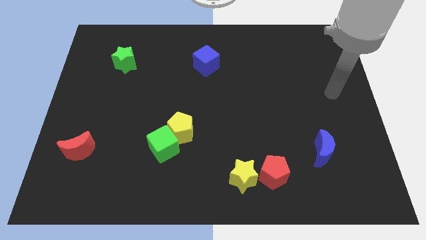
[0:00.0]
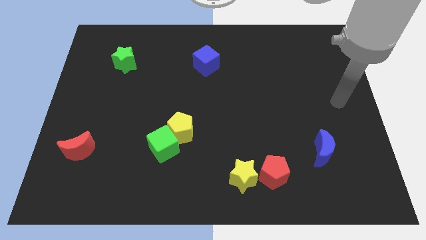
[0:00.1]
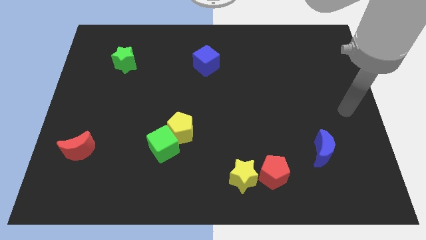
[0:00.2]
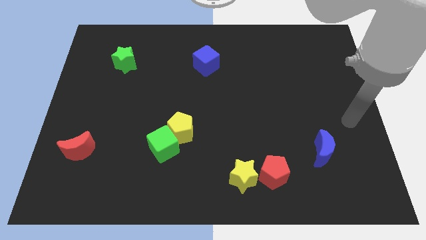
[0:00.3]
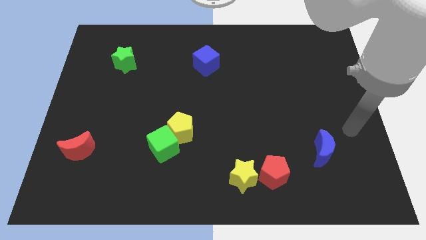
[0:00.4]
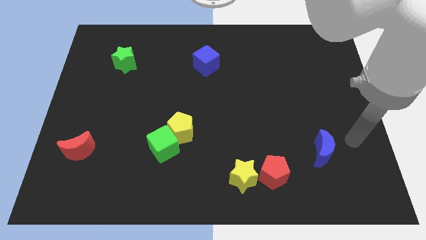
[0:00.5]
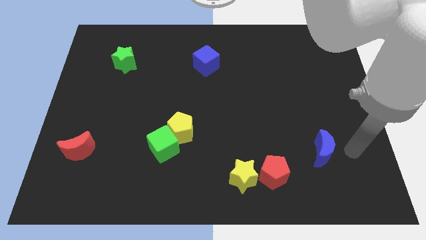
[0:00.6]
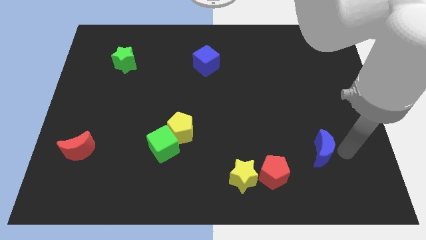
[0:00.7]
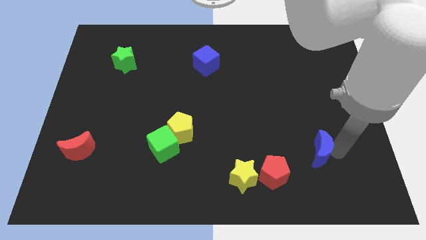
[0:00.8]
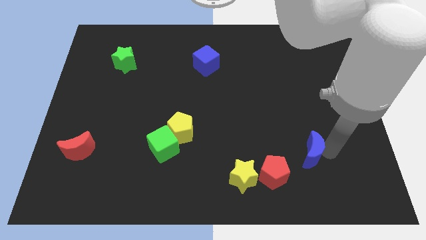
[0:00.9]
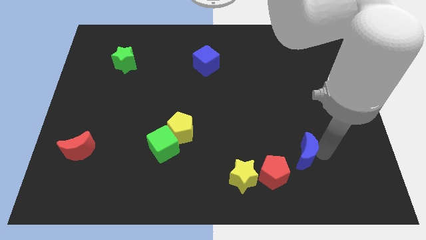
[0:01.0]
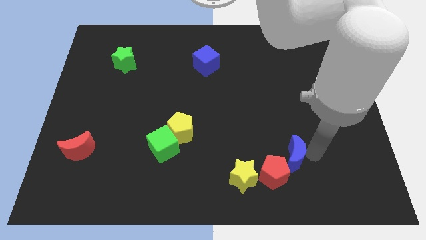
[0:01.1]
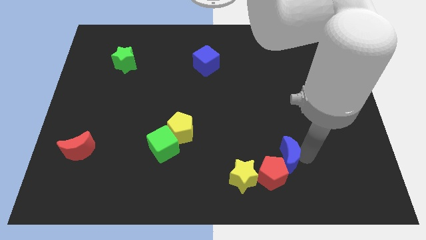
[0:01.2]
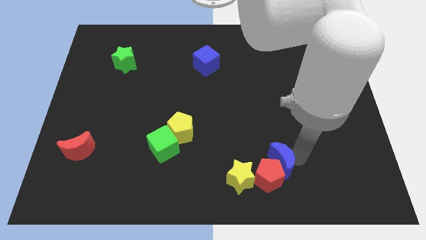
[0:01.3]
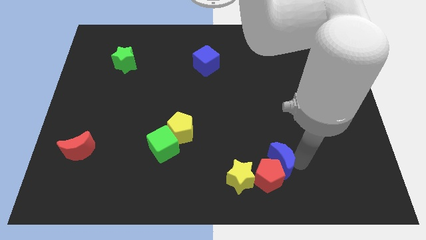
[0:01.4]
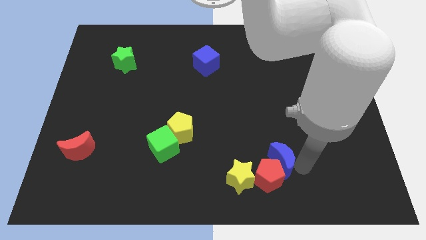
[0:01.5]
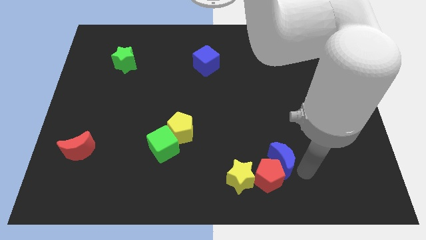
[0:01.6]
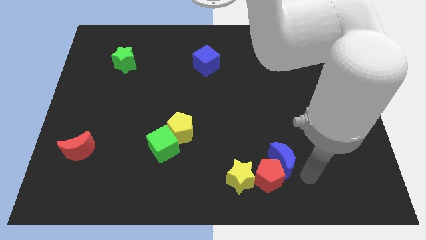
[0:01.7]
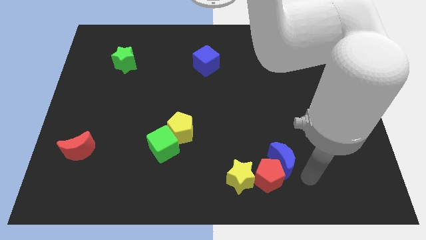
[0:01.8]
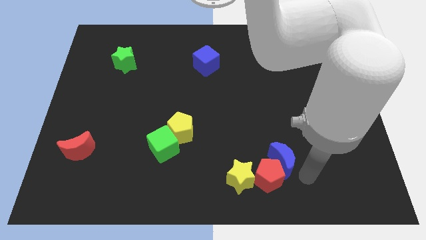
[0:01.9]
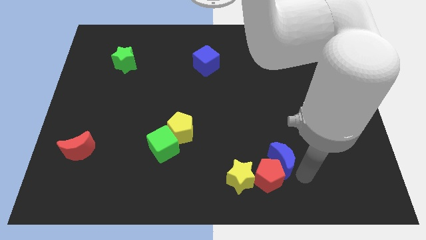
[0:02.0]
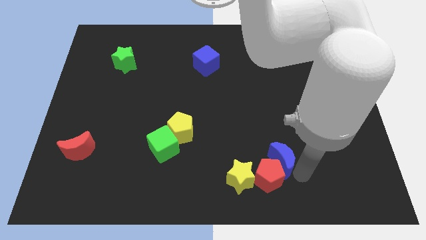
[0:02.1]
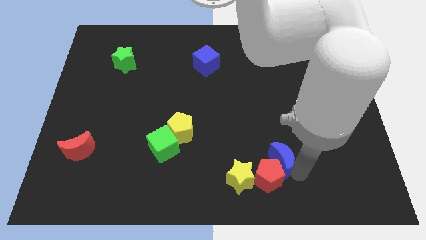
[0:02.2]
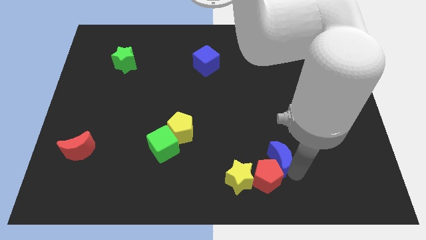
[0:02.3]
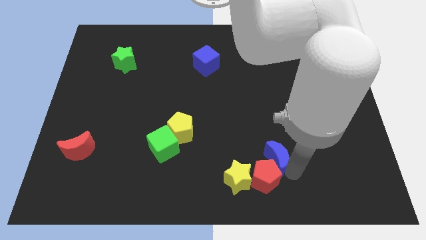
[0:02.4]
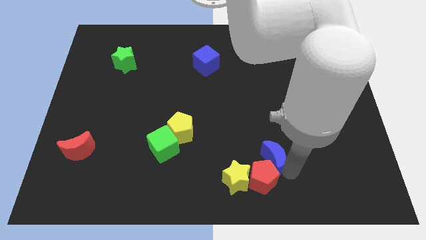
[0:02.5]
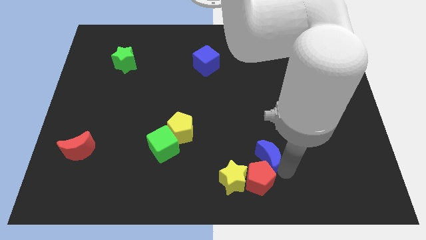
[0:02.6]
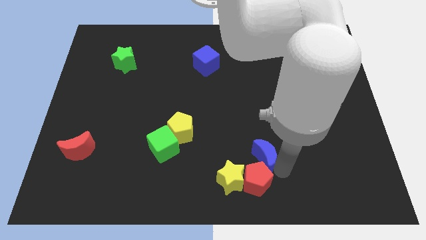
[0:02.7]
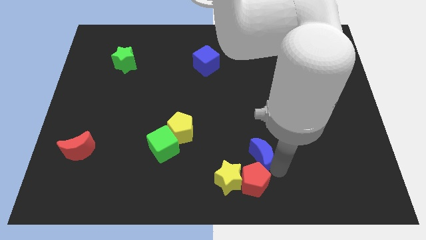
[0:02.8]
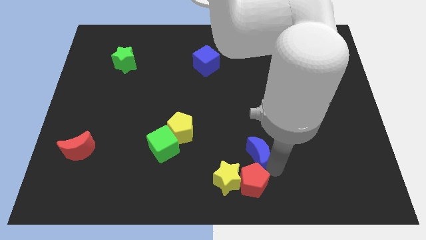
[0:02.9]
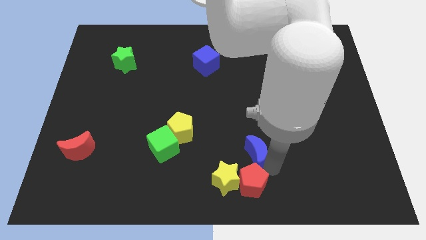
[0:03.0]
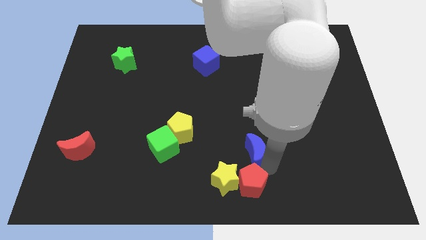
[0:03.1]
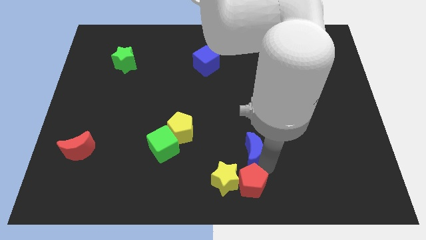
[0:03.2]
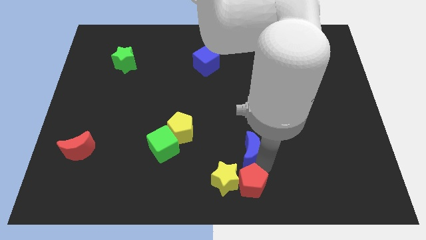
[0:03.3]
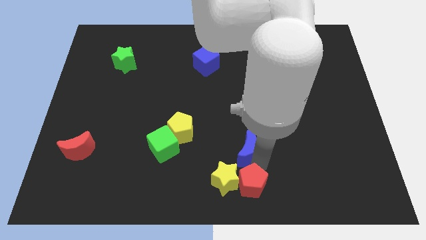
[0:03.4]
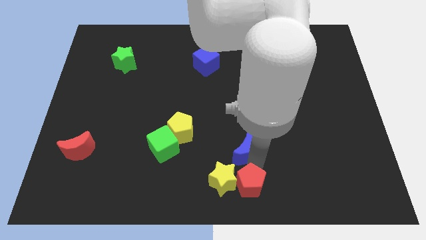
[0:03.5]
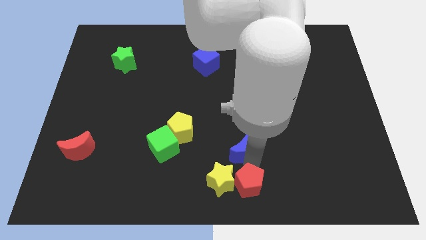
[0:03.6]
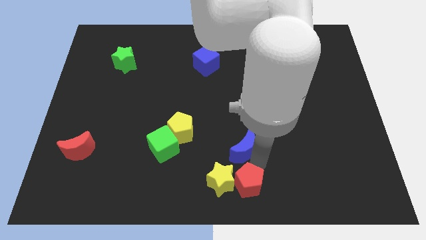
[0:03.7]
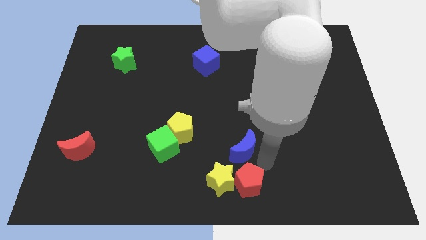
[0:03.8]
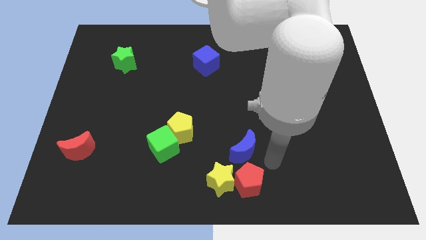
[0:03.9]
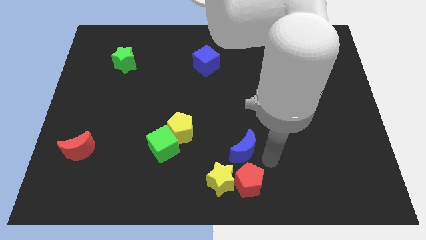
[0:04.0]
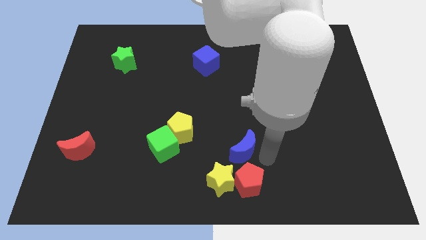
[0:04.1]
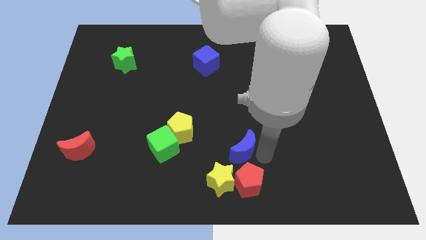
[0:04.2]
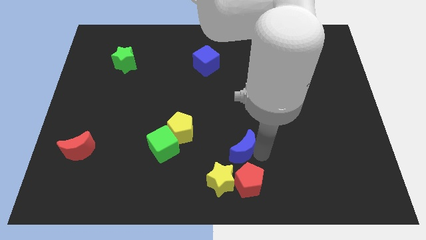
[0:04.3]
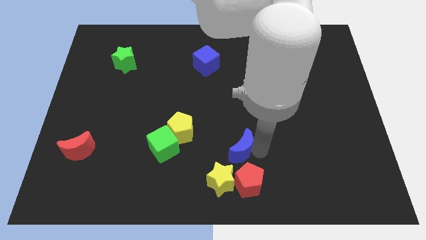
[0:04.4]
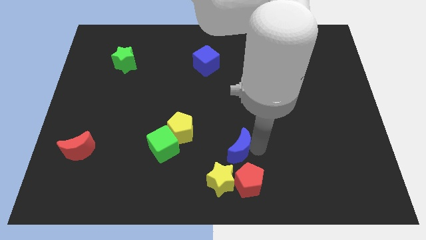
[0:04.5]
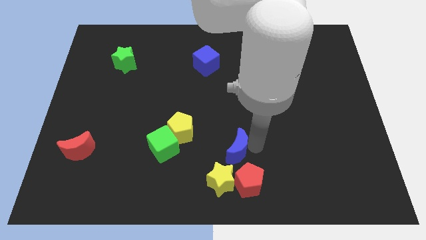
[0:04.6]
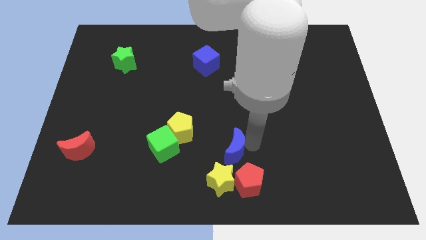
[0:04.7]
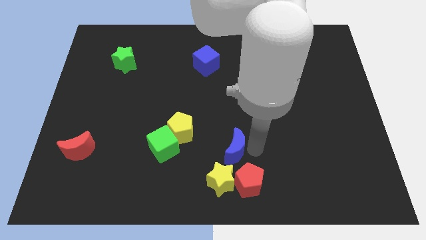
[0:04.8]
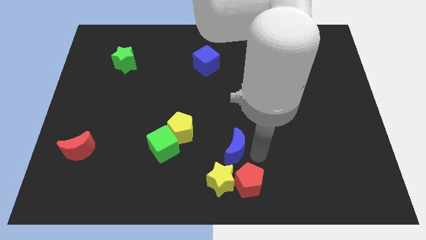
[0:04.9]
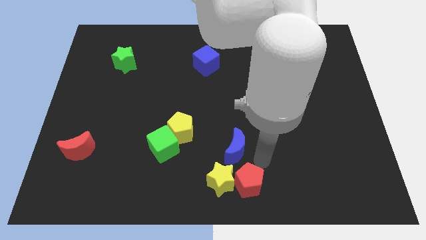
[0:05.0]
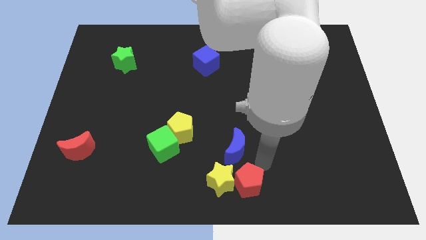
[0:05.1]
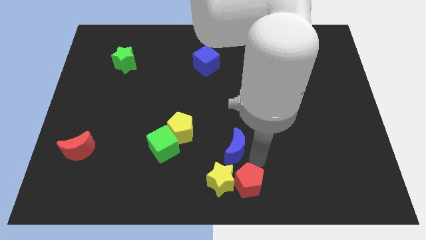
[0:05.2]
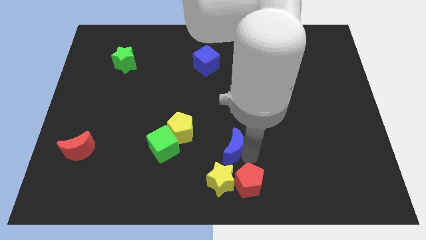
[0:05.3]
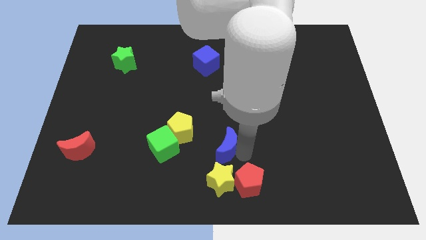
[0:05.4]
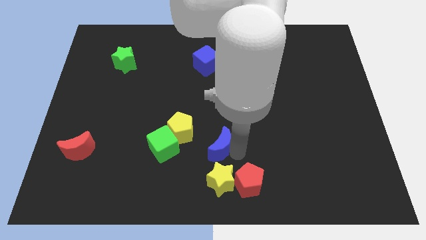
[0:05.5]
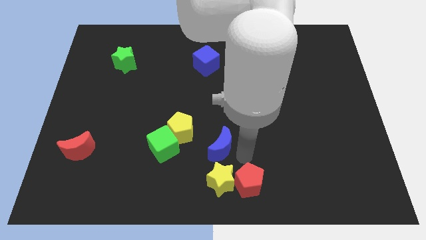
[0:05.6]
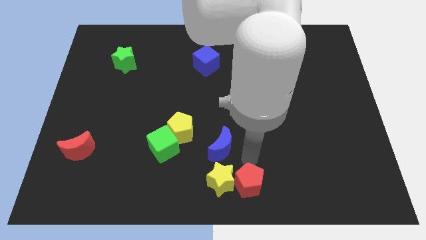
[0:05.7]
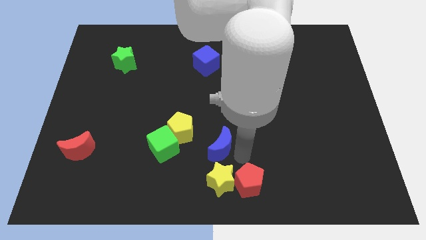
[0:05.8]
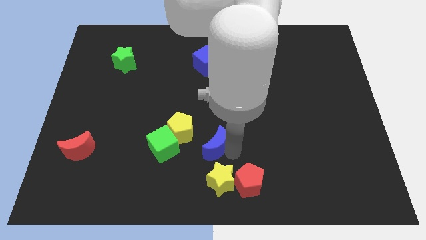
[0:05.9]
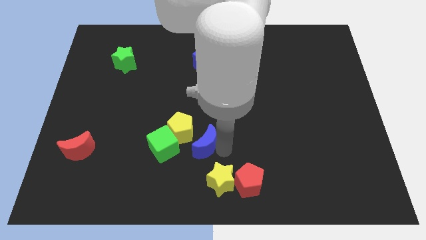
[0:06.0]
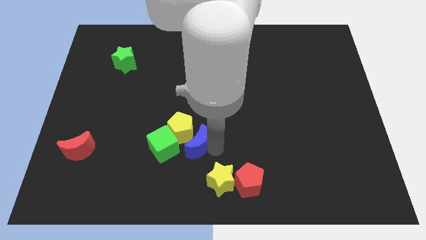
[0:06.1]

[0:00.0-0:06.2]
push the blue moon close to the yellow pentagon
